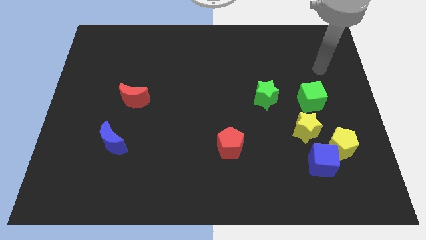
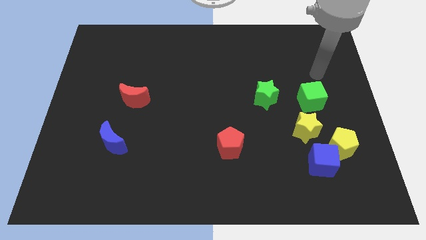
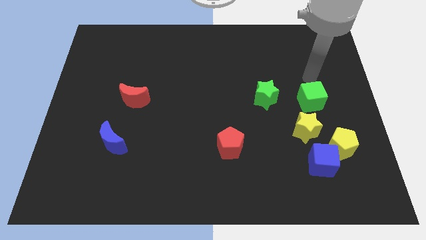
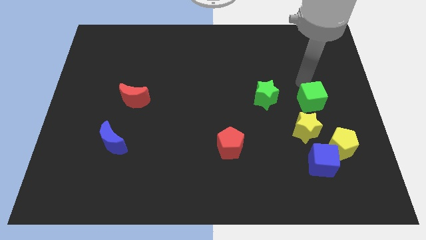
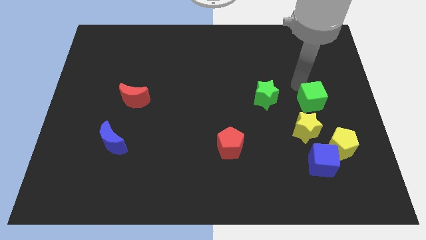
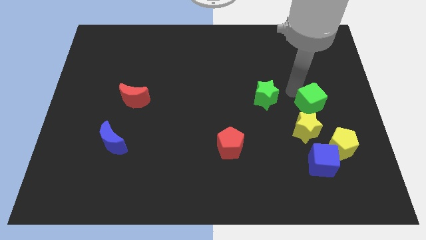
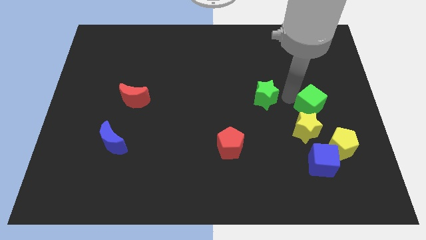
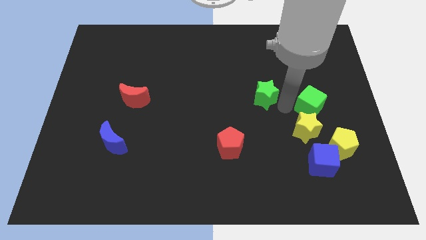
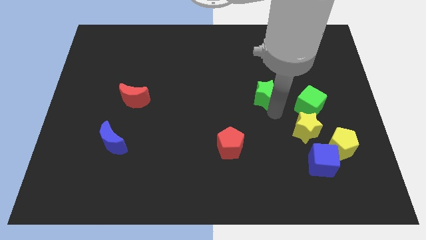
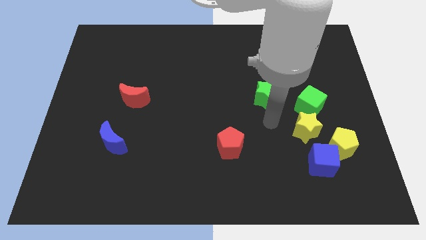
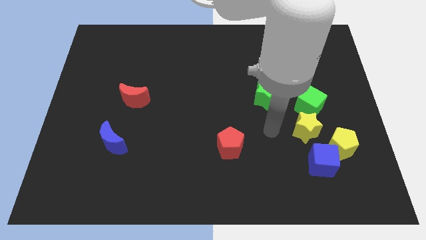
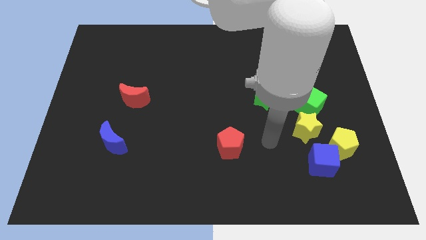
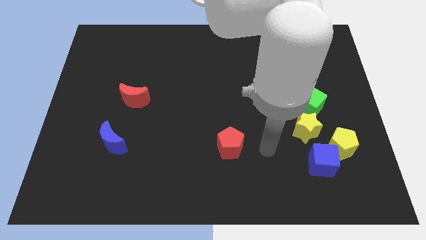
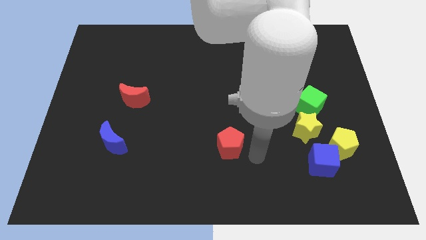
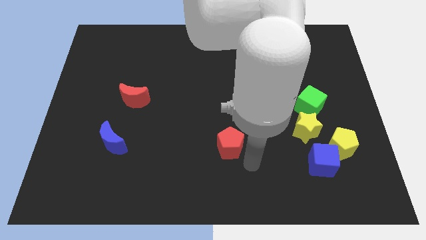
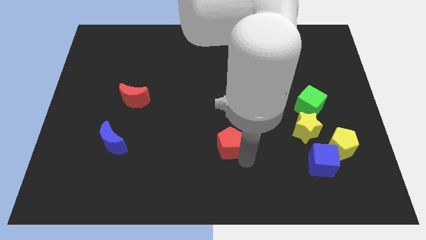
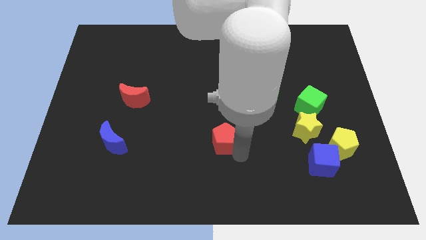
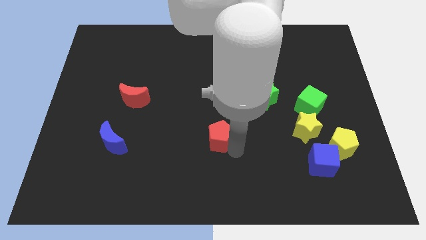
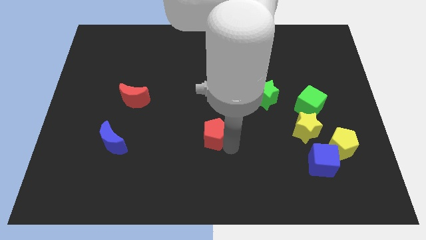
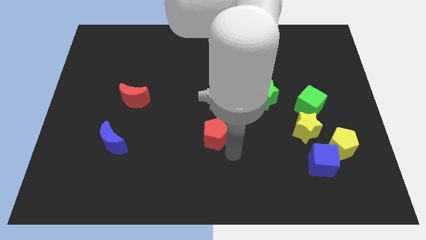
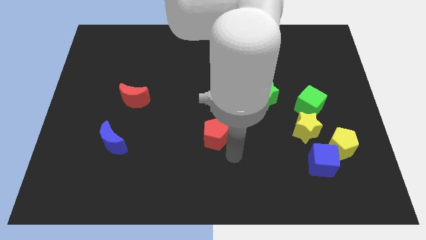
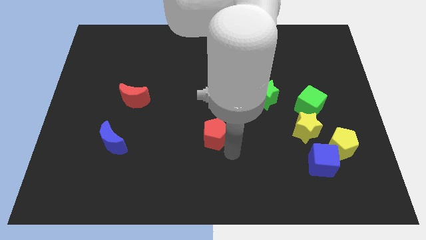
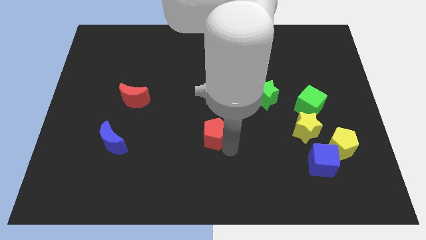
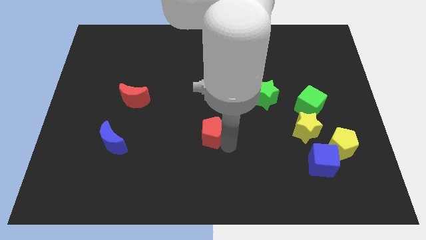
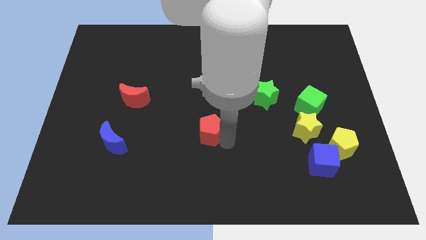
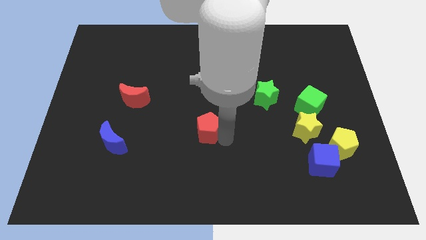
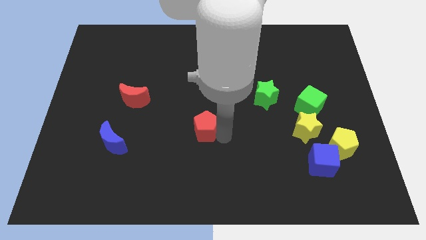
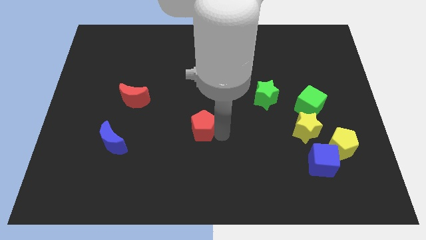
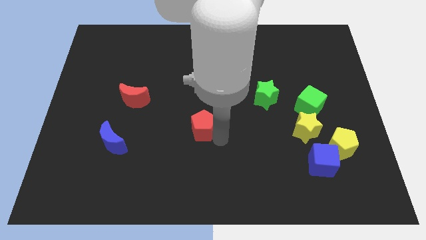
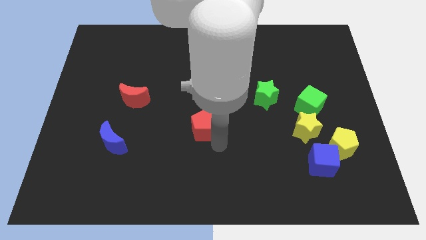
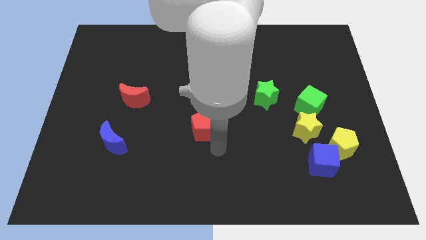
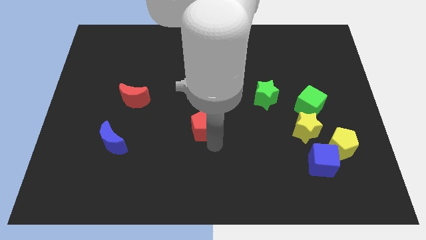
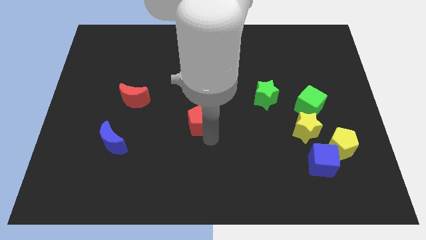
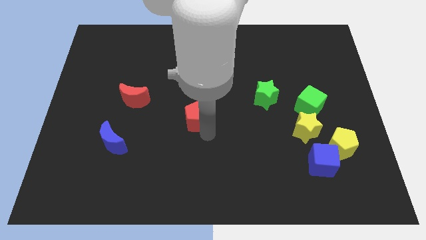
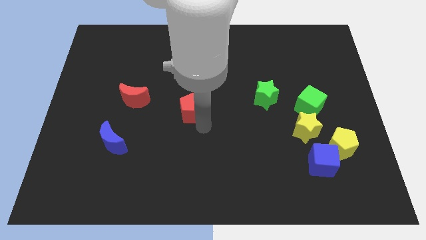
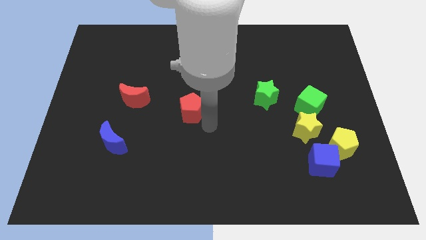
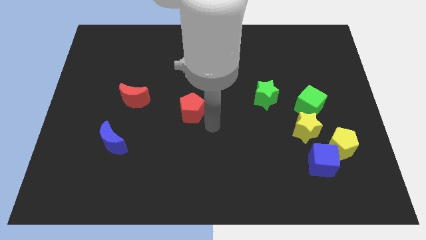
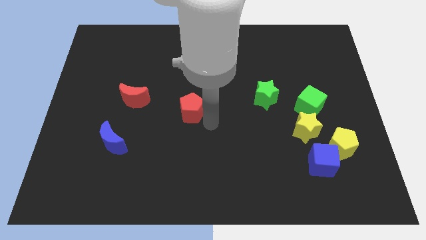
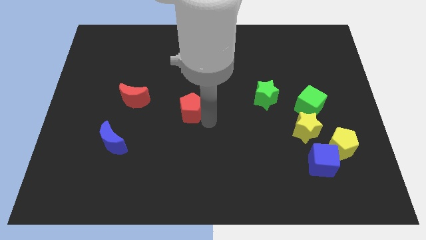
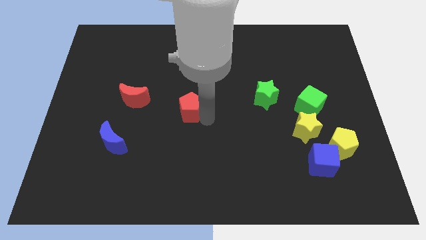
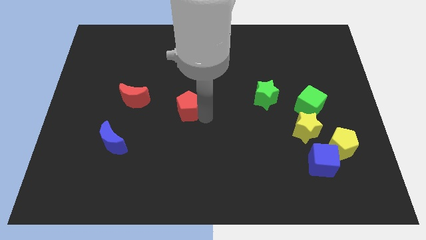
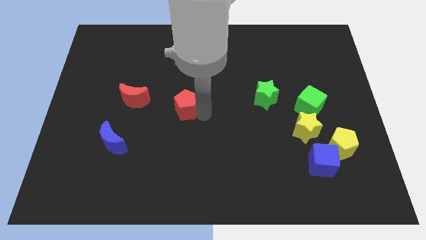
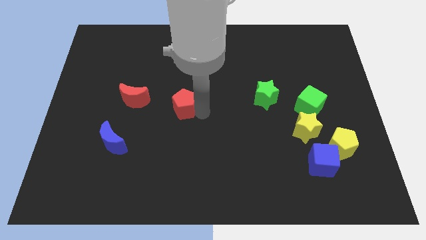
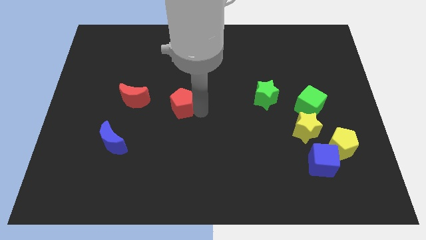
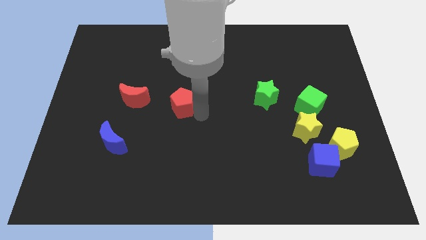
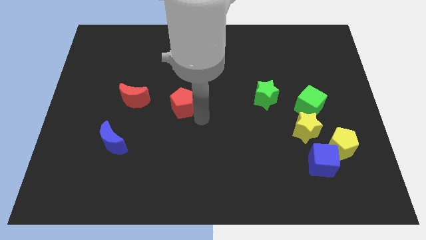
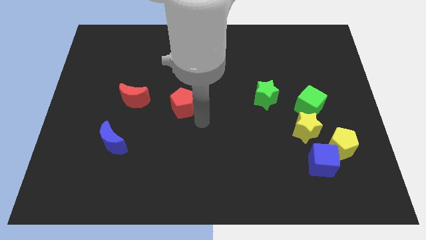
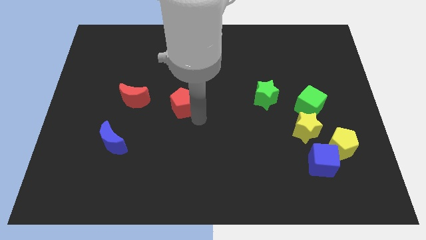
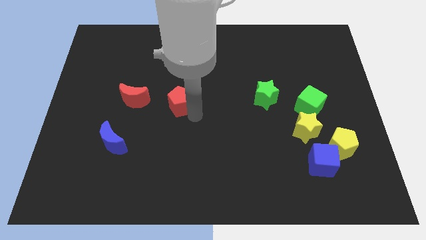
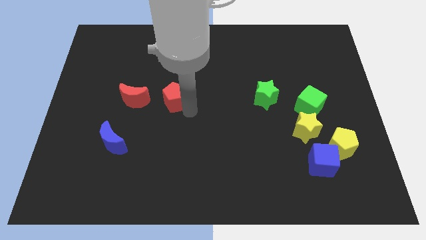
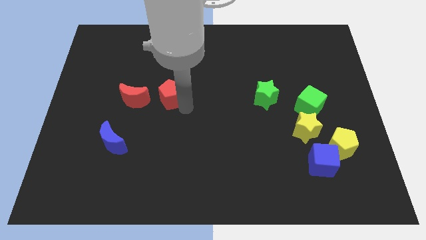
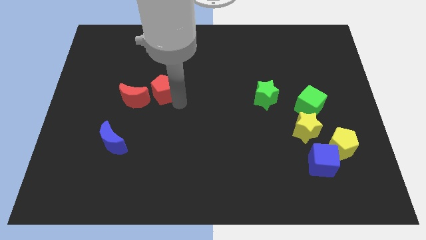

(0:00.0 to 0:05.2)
slide the red pentagon upwards and to the left diagonally

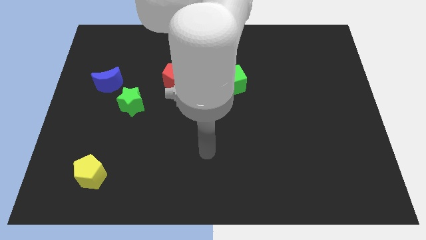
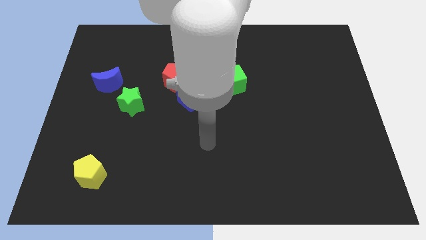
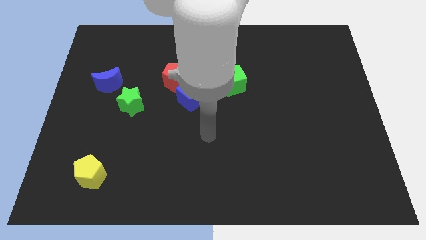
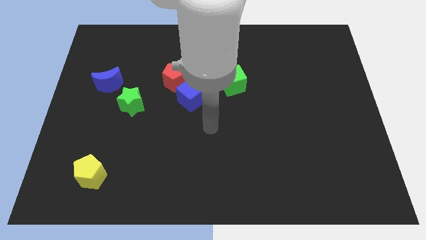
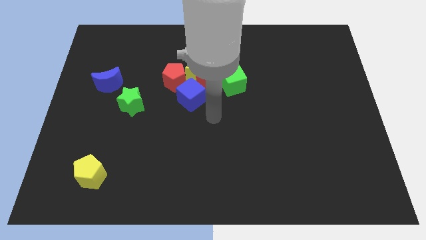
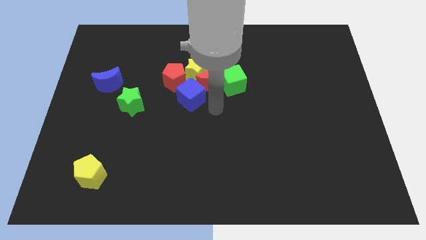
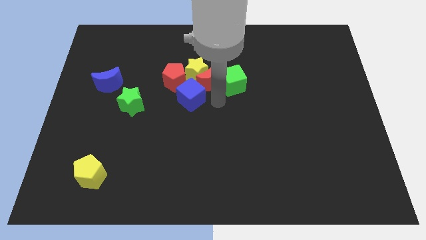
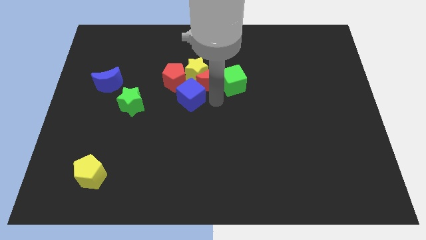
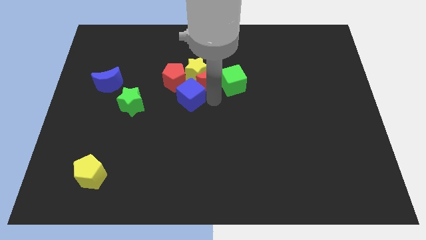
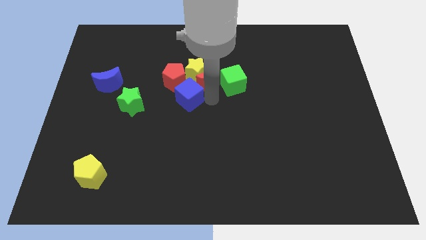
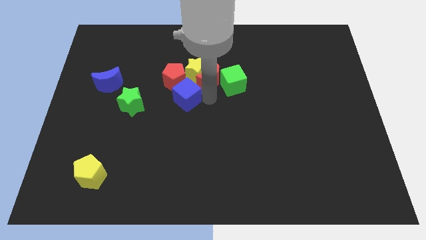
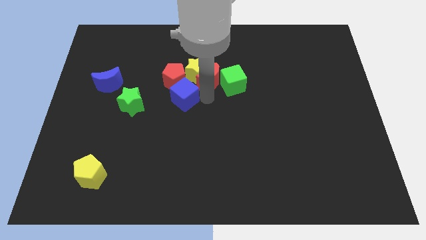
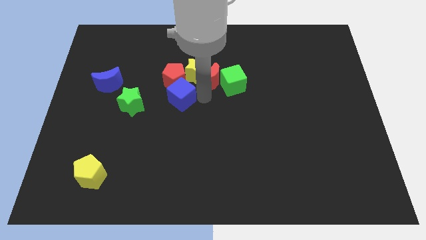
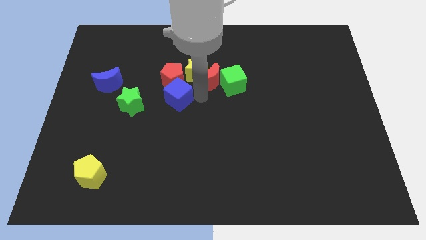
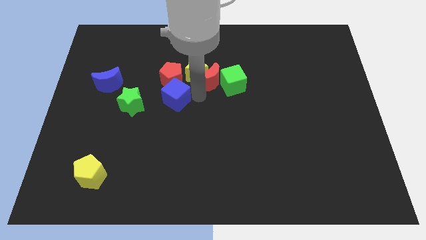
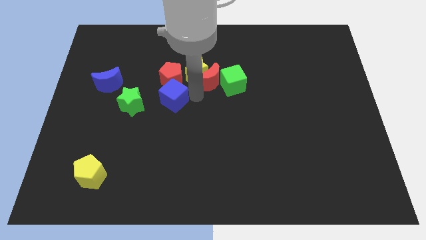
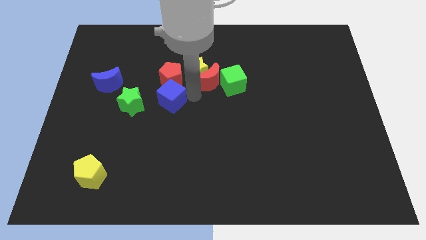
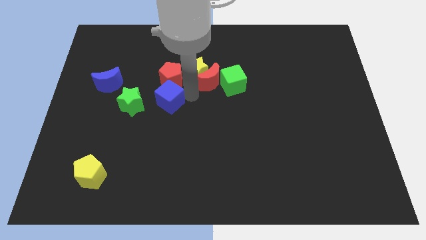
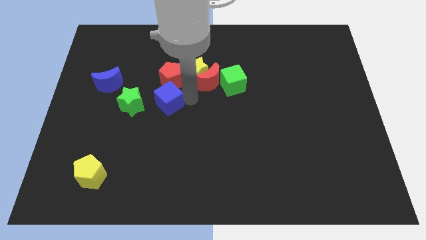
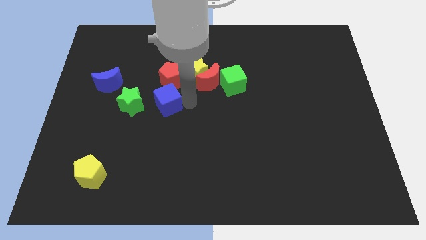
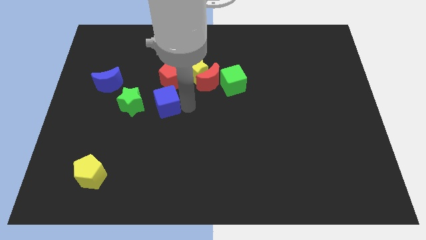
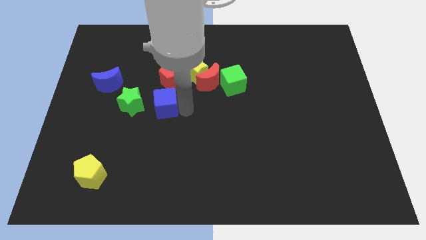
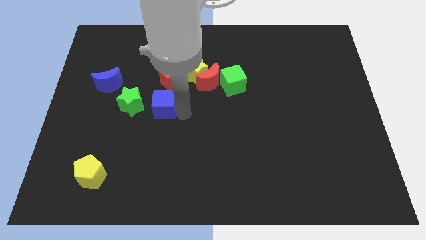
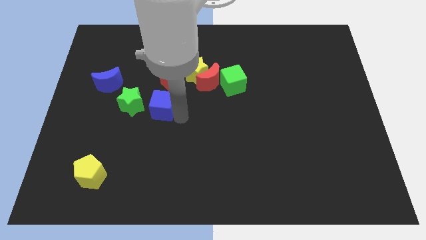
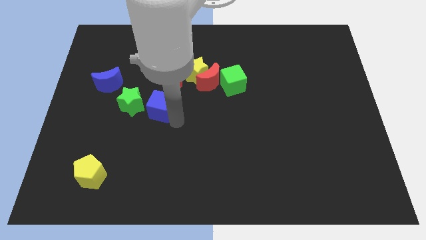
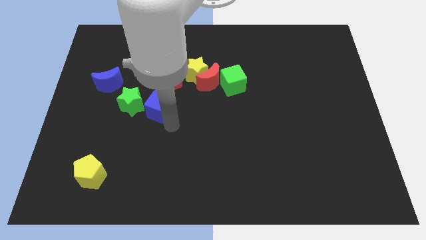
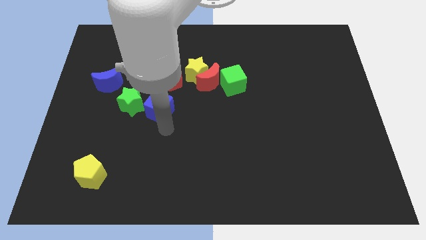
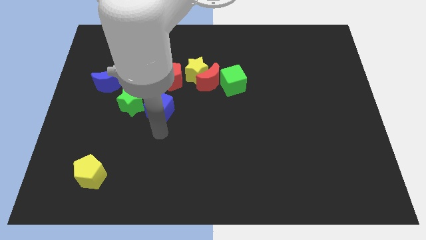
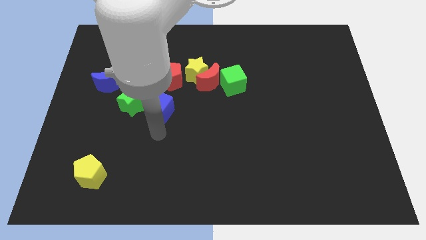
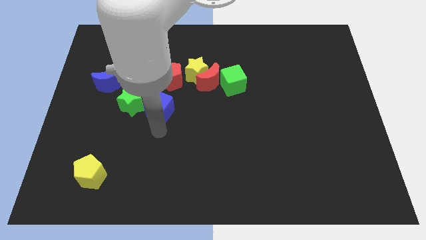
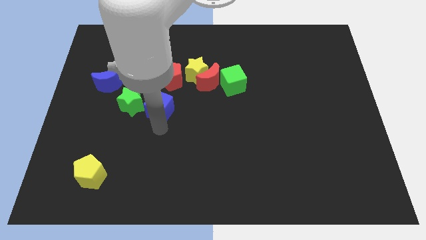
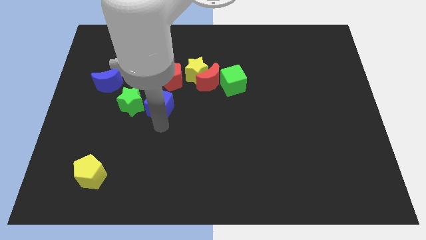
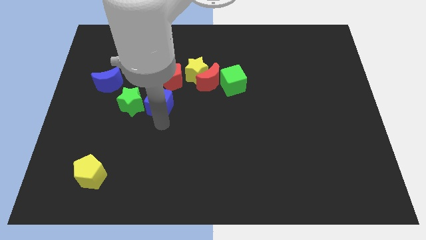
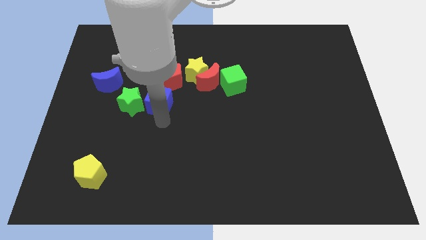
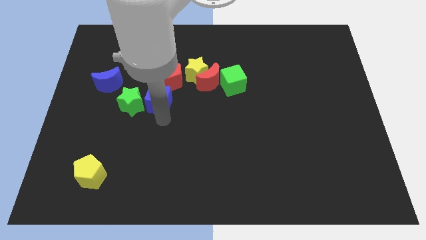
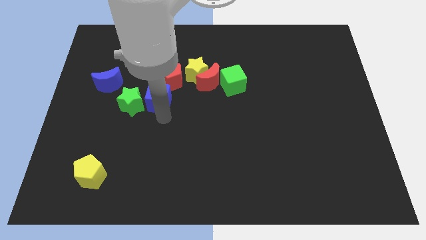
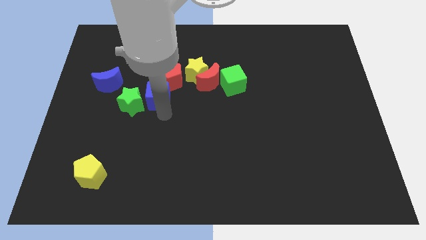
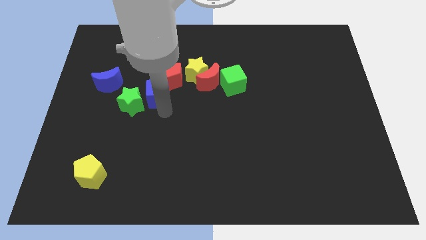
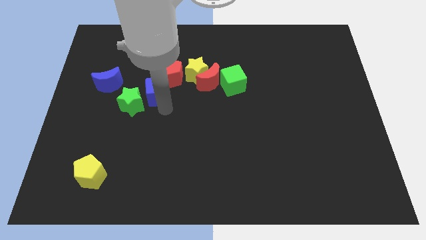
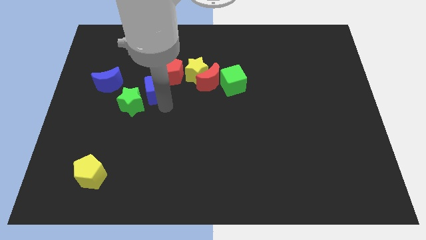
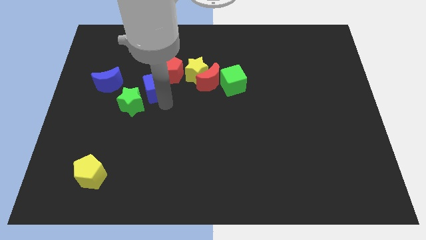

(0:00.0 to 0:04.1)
slightly move the blue cube upwards and then to the left
